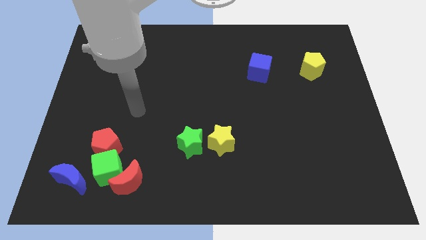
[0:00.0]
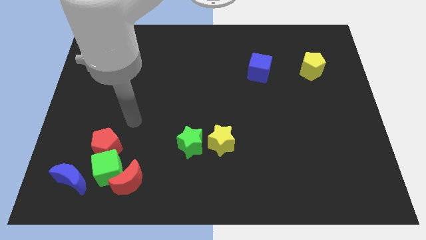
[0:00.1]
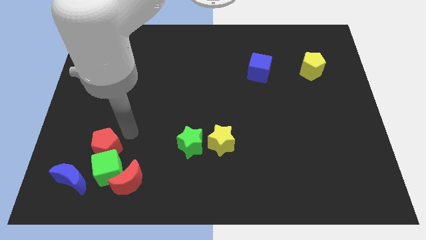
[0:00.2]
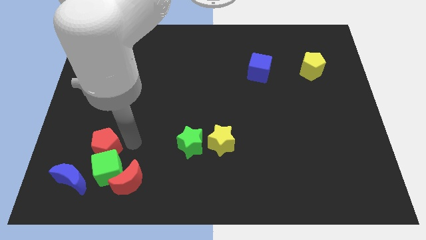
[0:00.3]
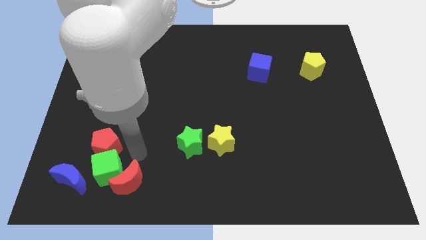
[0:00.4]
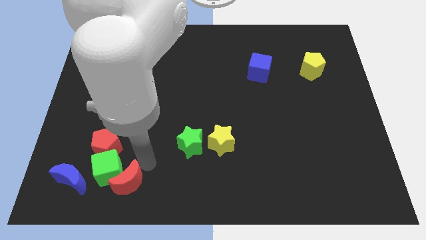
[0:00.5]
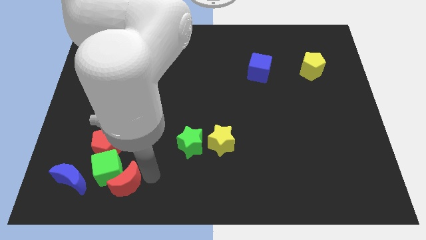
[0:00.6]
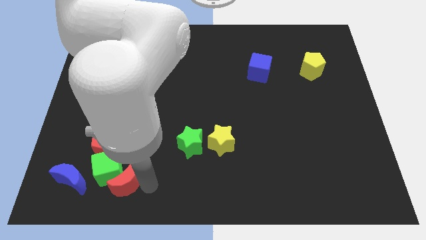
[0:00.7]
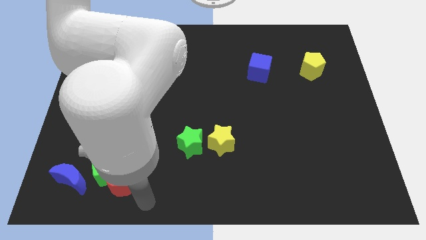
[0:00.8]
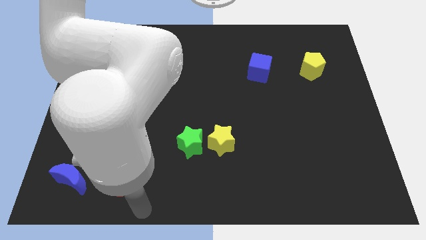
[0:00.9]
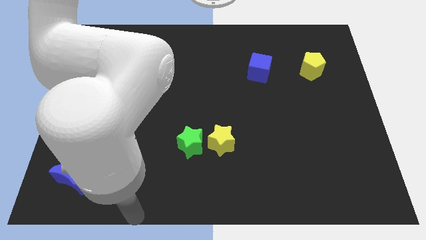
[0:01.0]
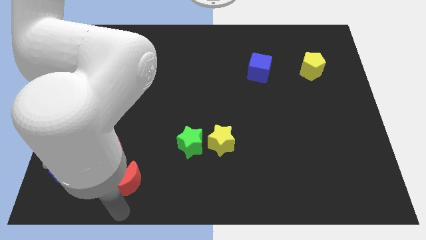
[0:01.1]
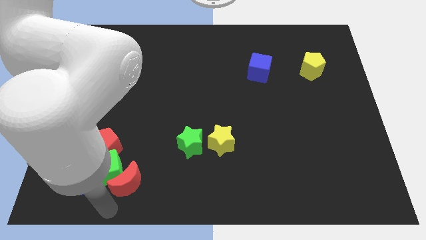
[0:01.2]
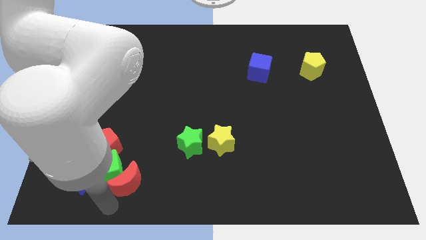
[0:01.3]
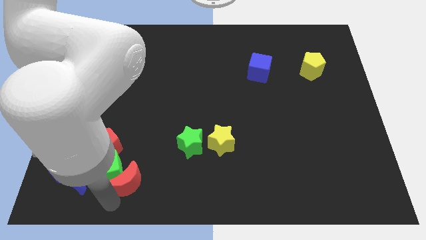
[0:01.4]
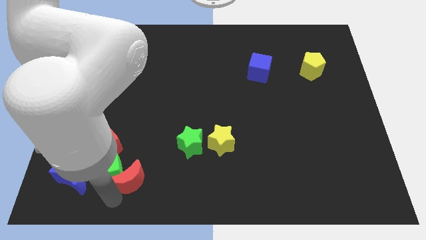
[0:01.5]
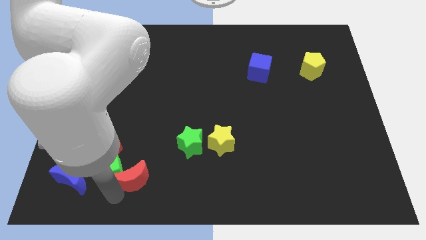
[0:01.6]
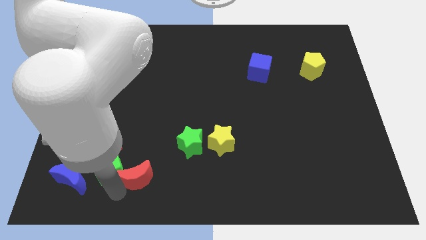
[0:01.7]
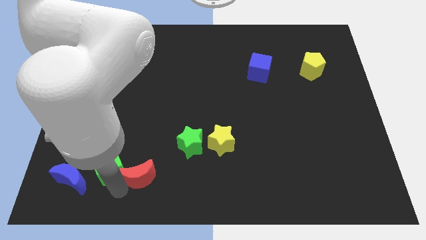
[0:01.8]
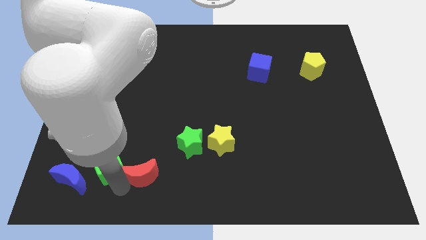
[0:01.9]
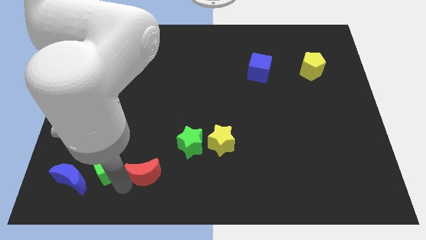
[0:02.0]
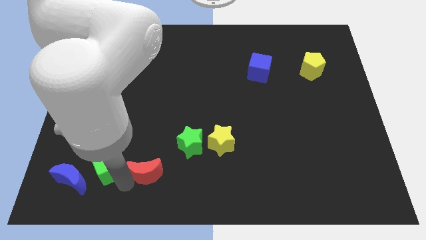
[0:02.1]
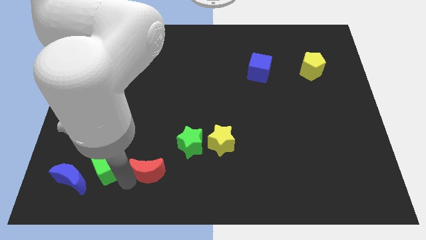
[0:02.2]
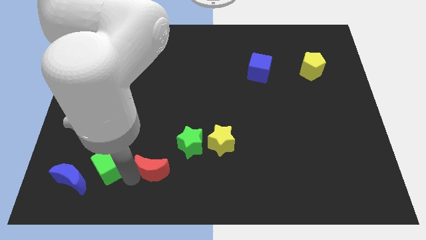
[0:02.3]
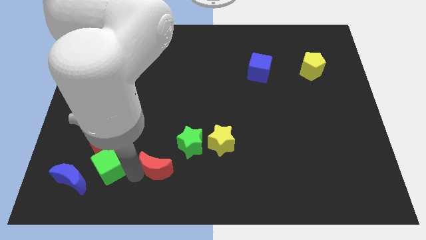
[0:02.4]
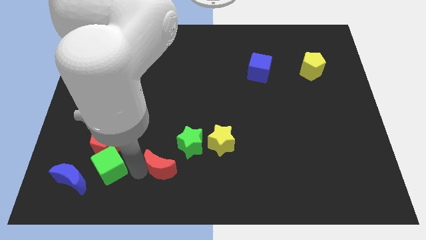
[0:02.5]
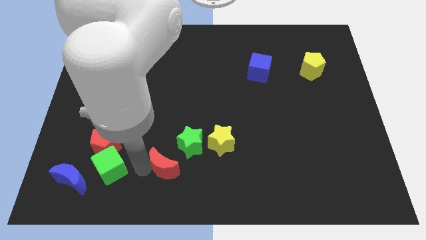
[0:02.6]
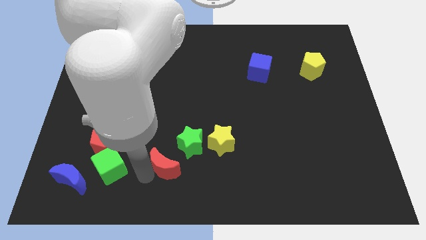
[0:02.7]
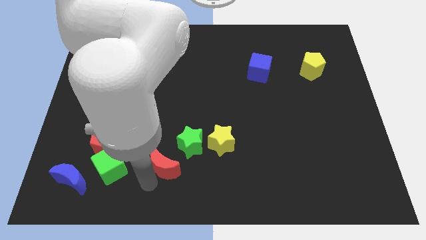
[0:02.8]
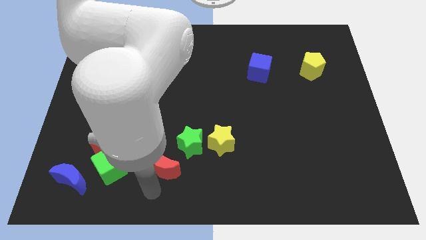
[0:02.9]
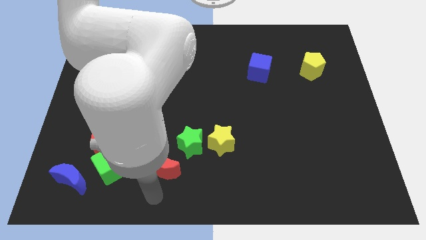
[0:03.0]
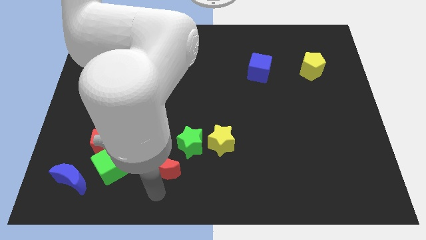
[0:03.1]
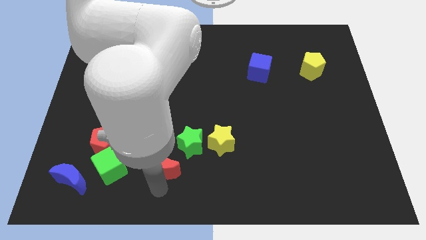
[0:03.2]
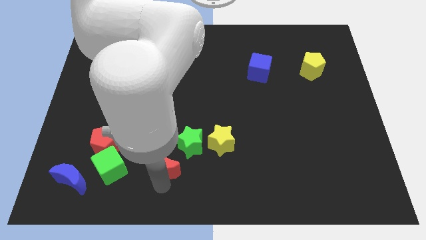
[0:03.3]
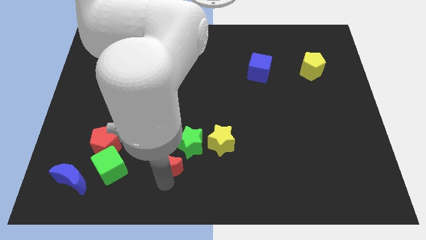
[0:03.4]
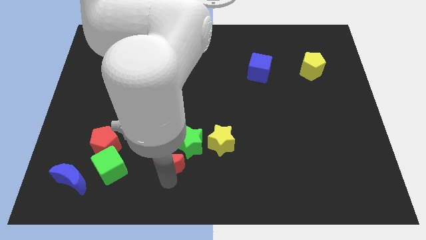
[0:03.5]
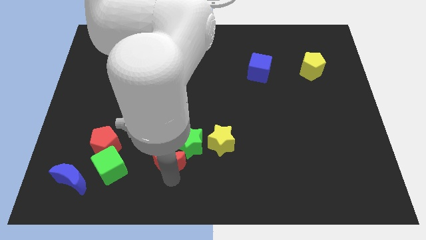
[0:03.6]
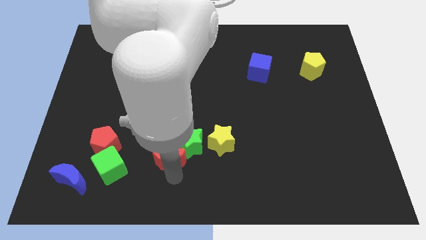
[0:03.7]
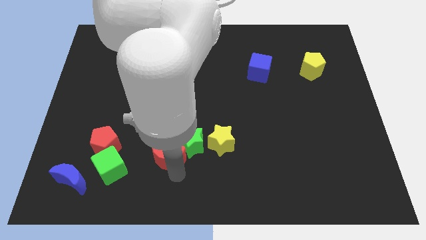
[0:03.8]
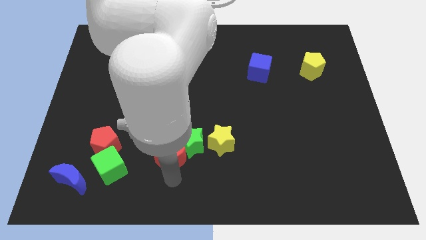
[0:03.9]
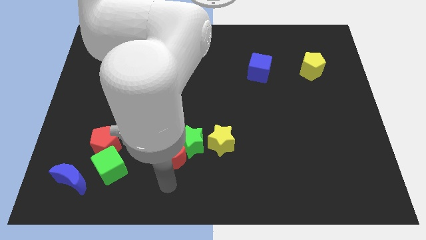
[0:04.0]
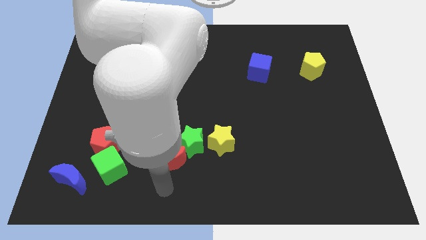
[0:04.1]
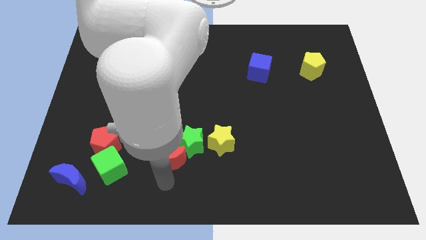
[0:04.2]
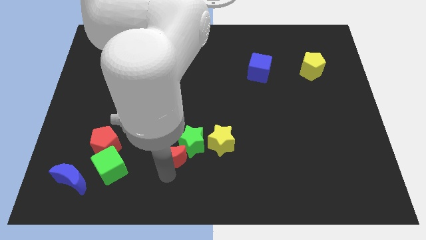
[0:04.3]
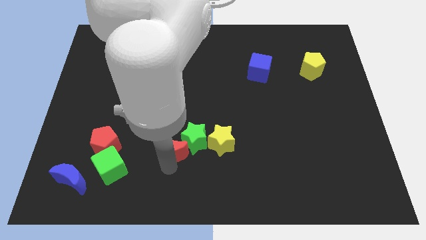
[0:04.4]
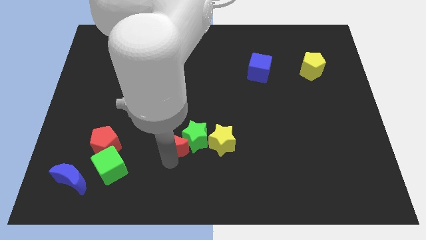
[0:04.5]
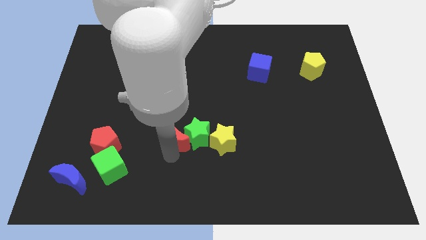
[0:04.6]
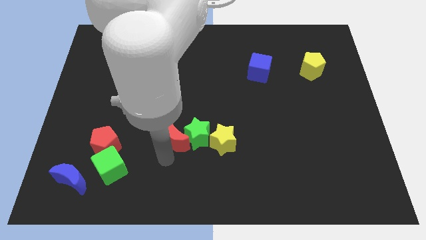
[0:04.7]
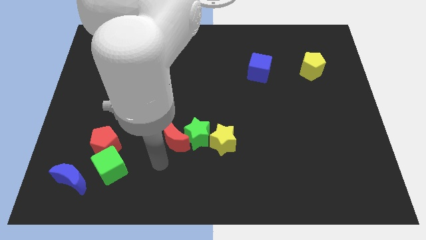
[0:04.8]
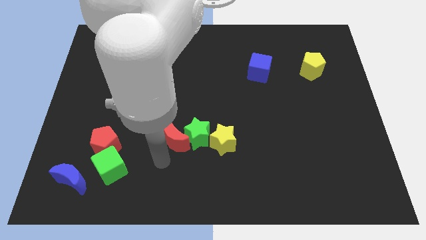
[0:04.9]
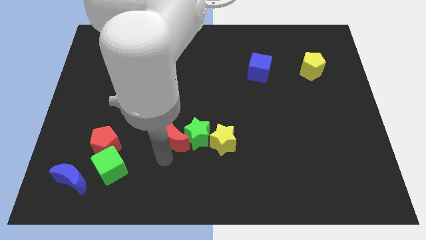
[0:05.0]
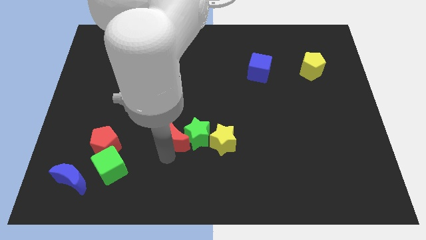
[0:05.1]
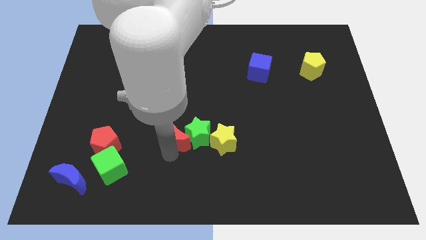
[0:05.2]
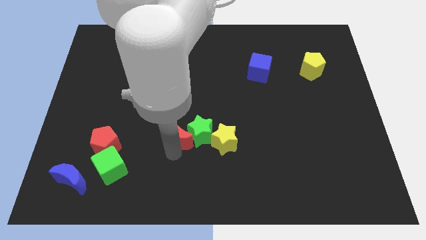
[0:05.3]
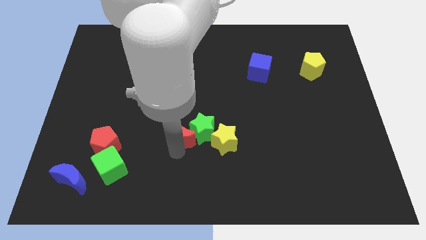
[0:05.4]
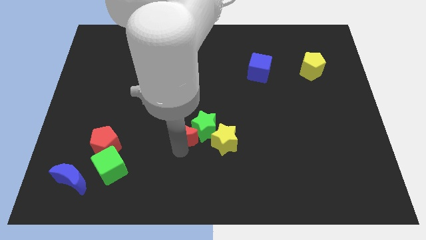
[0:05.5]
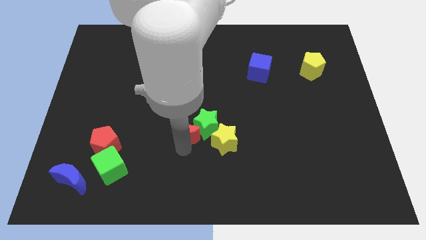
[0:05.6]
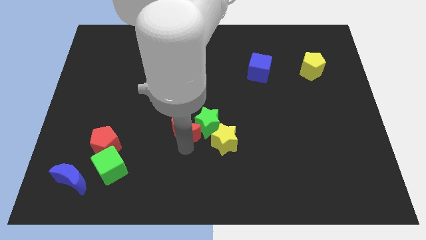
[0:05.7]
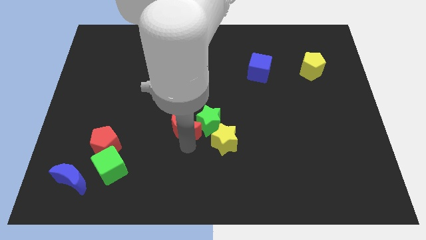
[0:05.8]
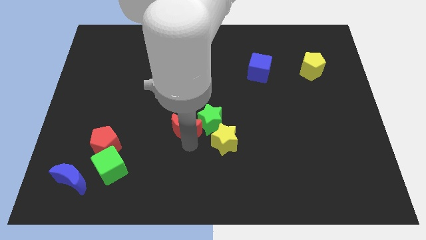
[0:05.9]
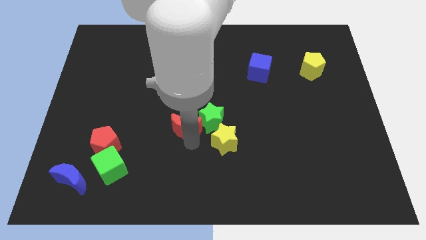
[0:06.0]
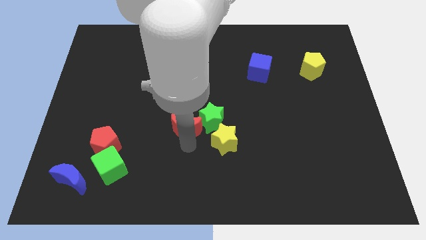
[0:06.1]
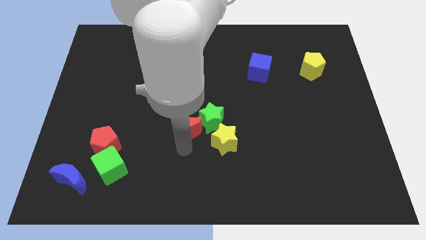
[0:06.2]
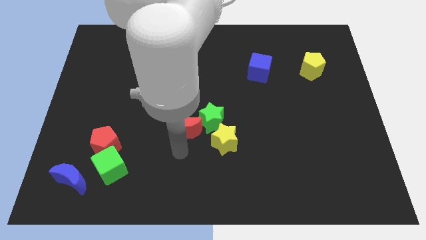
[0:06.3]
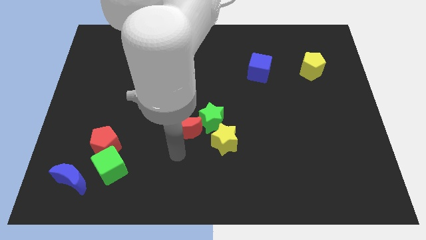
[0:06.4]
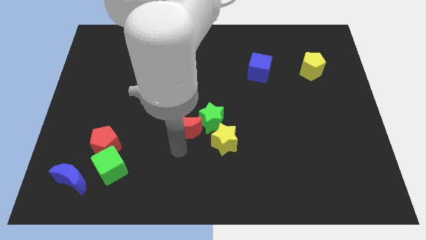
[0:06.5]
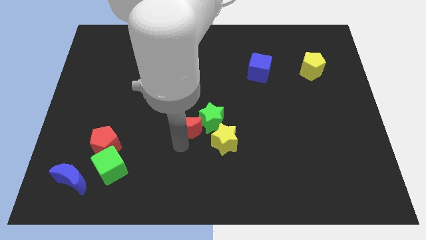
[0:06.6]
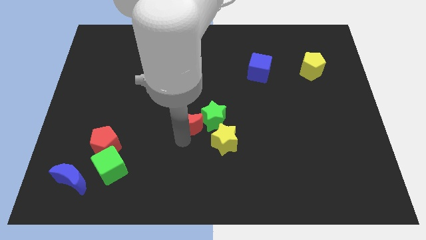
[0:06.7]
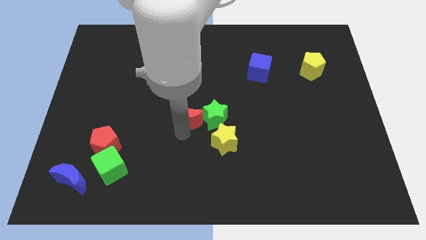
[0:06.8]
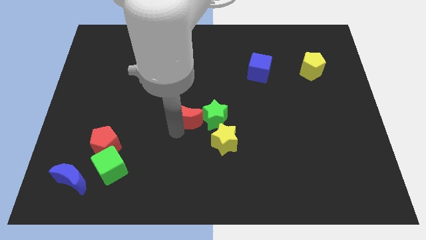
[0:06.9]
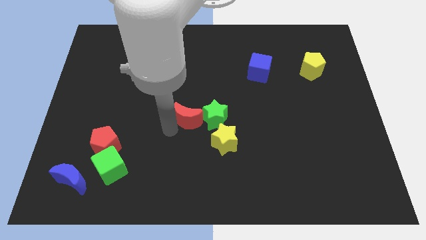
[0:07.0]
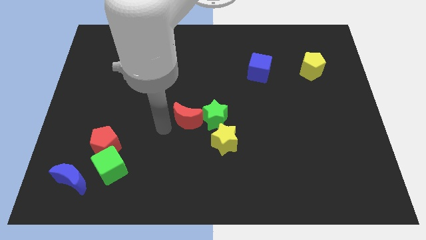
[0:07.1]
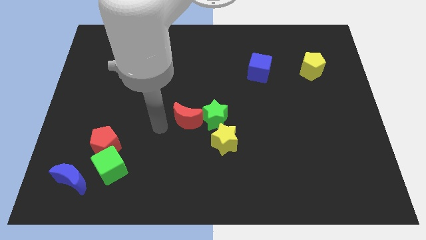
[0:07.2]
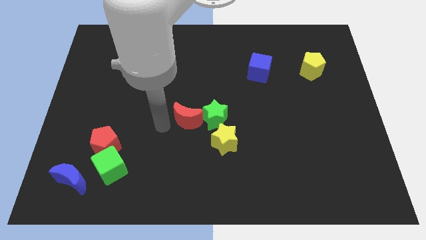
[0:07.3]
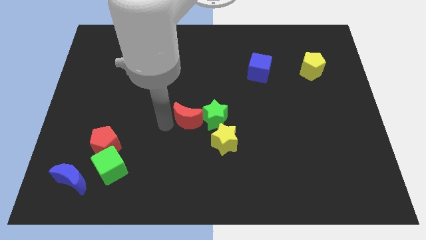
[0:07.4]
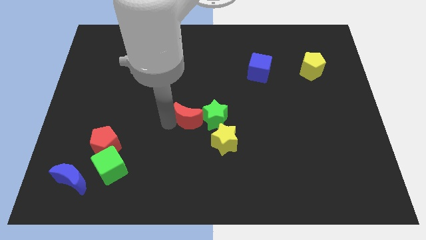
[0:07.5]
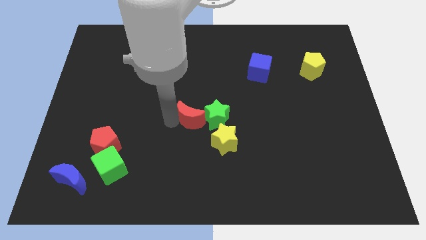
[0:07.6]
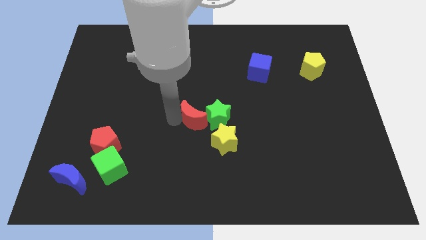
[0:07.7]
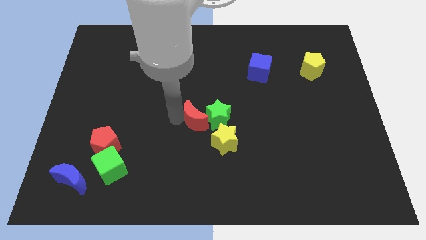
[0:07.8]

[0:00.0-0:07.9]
slide the red moon up and to the right diagonally

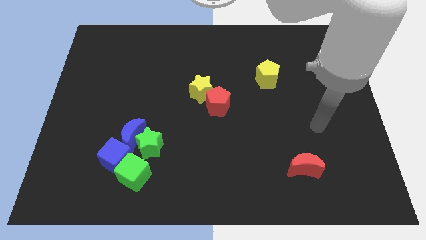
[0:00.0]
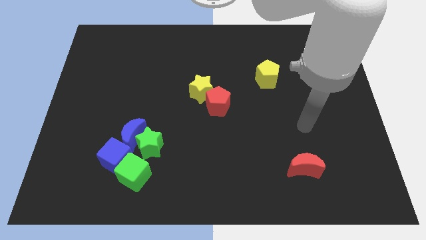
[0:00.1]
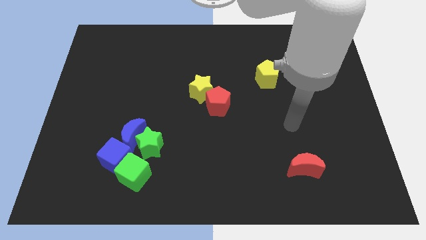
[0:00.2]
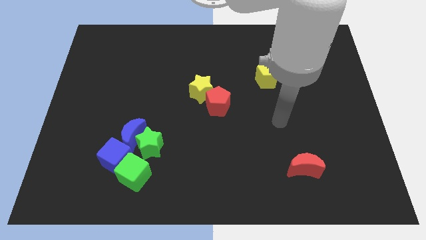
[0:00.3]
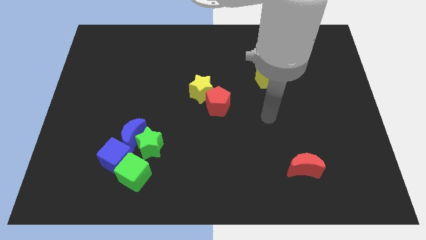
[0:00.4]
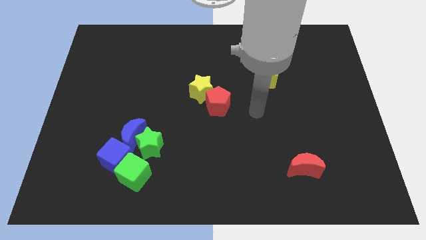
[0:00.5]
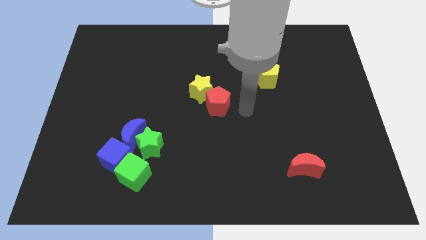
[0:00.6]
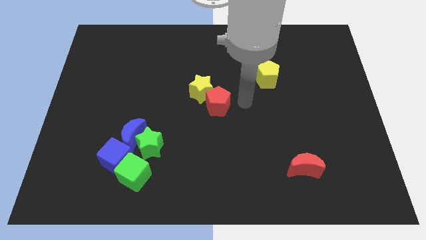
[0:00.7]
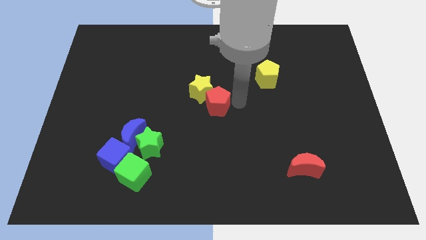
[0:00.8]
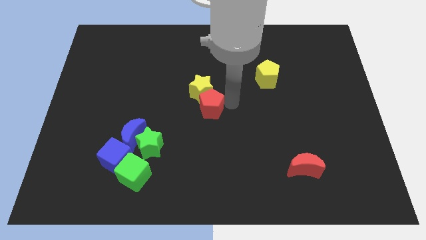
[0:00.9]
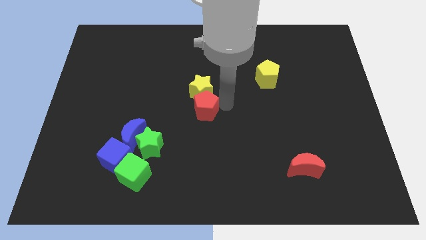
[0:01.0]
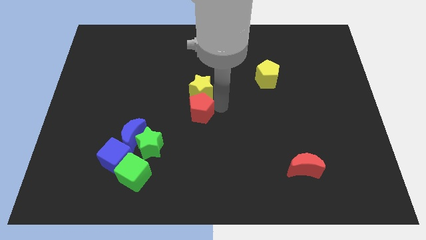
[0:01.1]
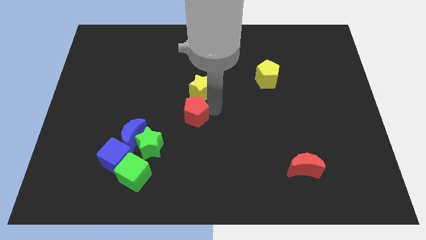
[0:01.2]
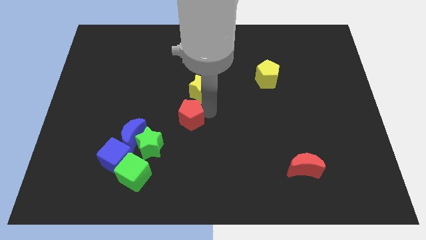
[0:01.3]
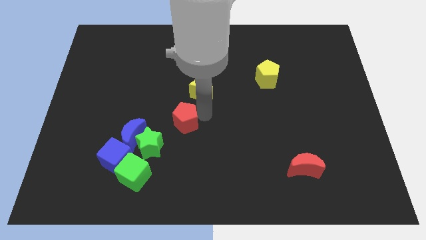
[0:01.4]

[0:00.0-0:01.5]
slide the red pentagon a bit to the left
